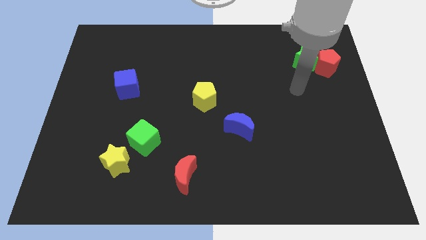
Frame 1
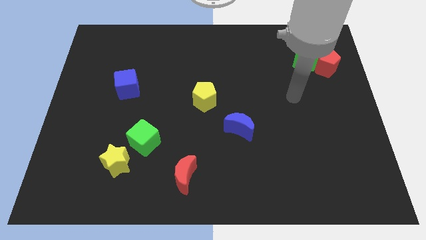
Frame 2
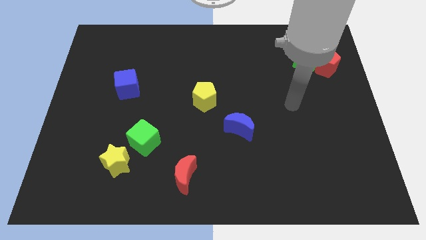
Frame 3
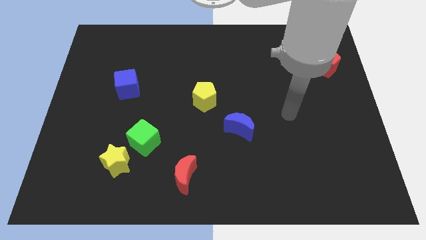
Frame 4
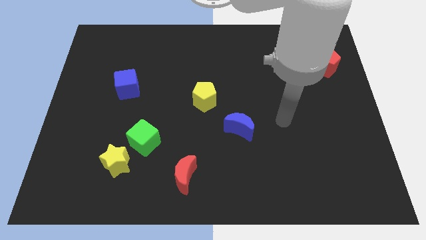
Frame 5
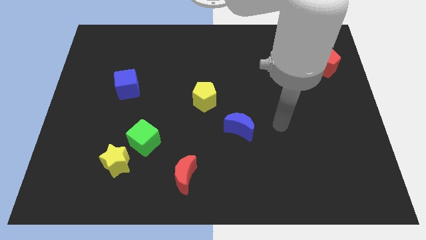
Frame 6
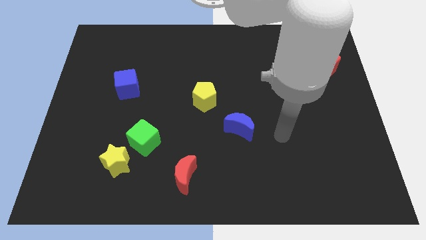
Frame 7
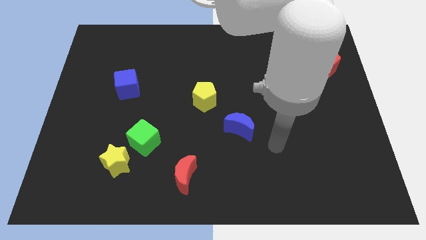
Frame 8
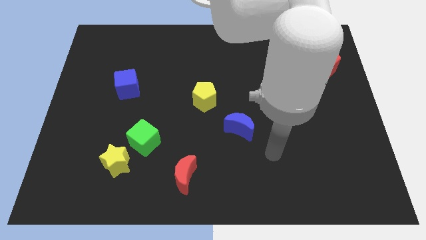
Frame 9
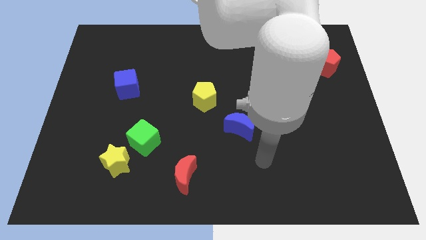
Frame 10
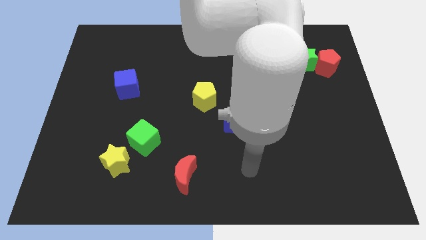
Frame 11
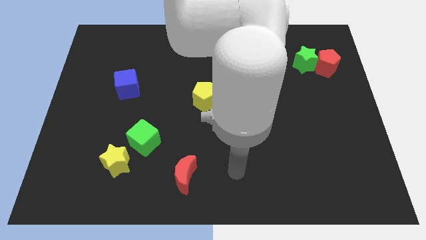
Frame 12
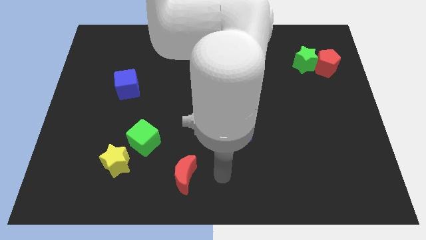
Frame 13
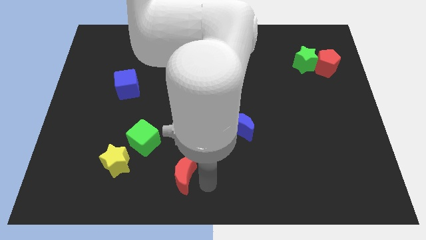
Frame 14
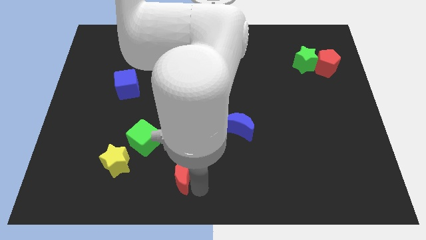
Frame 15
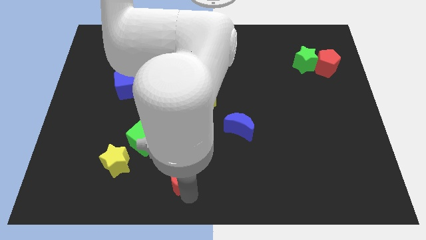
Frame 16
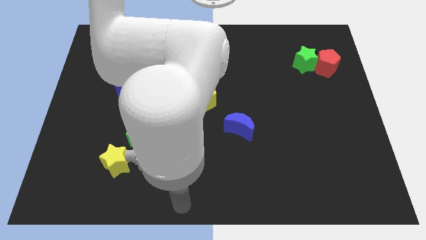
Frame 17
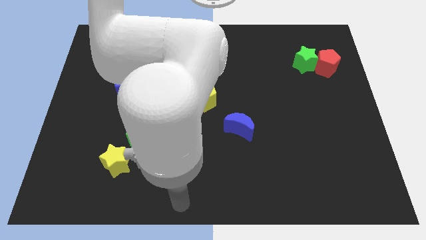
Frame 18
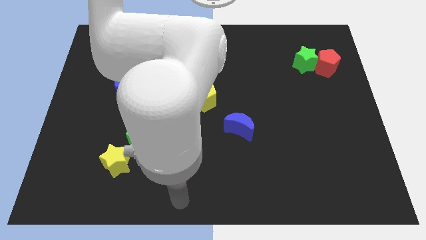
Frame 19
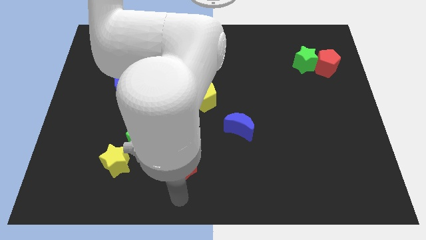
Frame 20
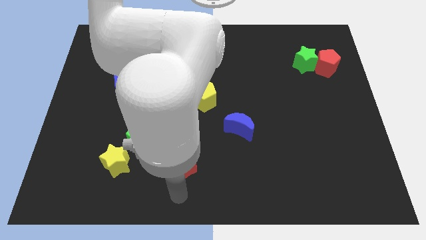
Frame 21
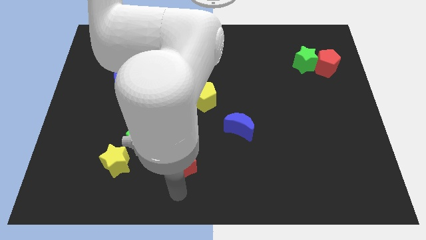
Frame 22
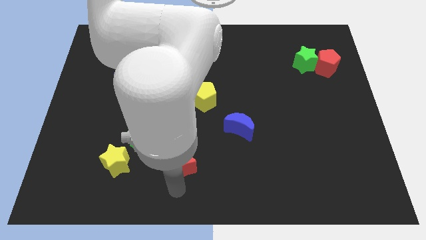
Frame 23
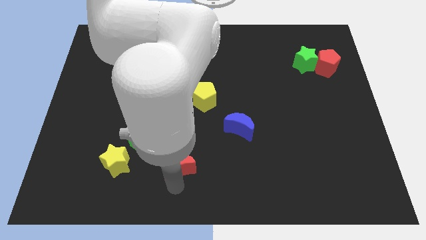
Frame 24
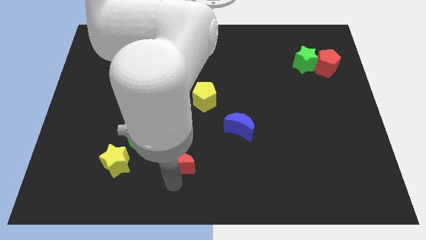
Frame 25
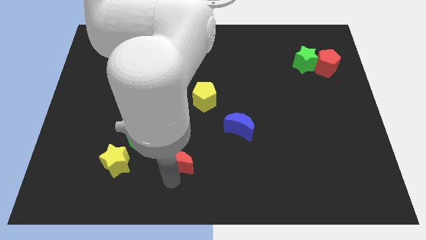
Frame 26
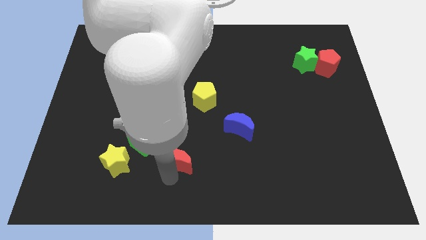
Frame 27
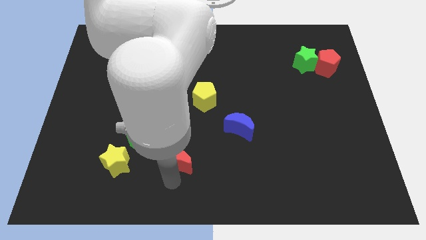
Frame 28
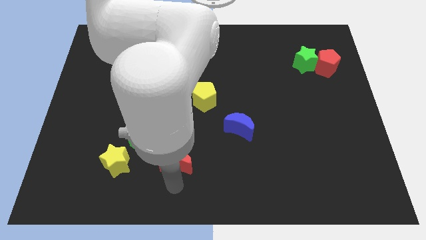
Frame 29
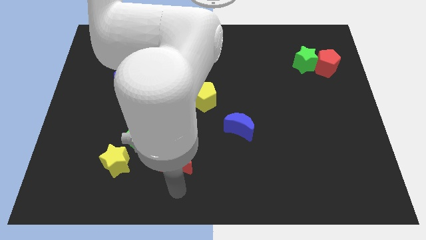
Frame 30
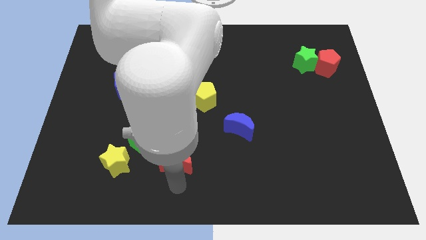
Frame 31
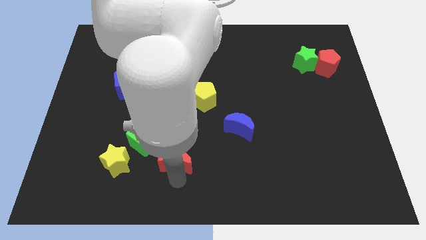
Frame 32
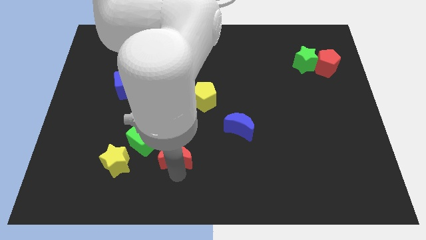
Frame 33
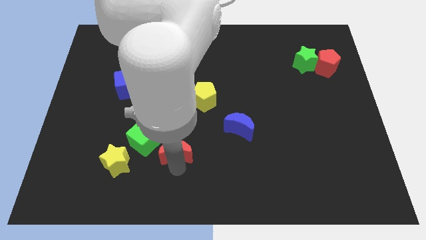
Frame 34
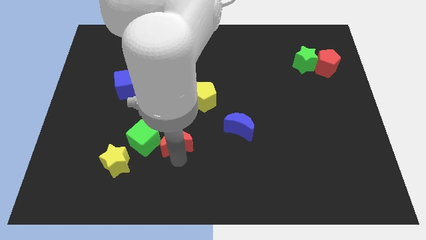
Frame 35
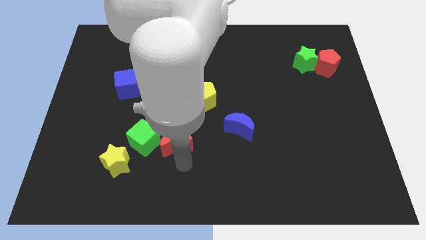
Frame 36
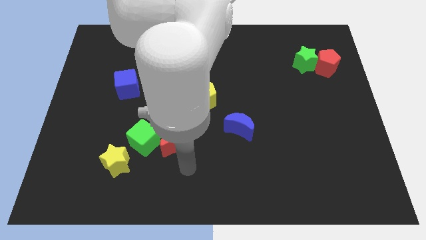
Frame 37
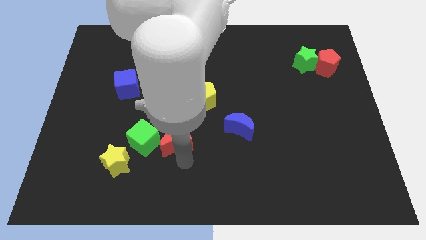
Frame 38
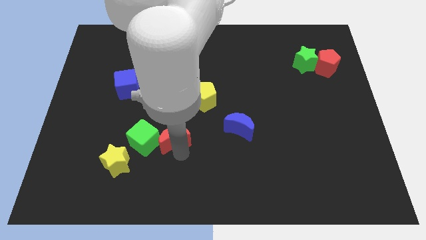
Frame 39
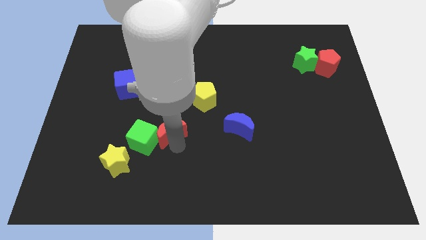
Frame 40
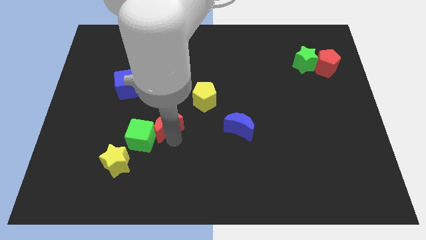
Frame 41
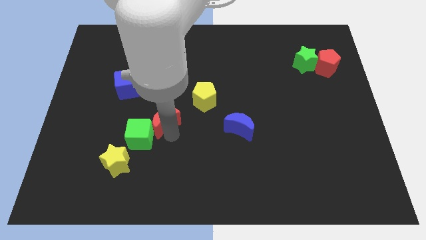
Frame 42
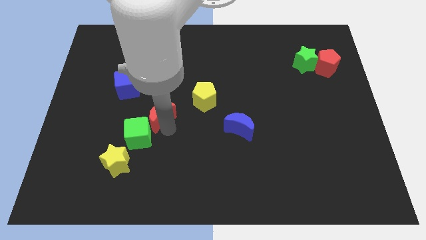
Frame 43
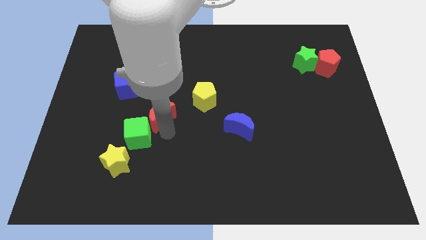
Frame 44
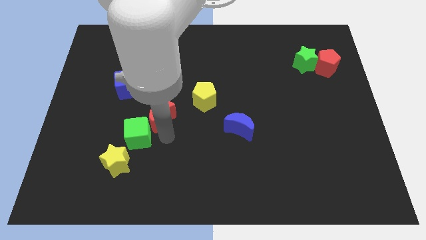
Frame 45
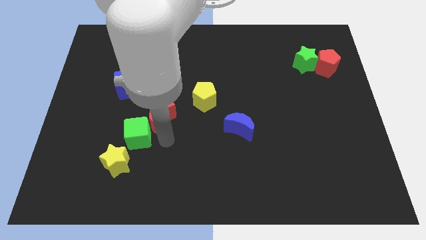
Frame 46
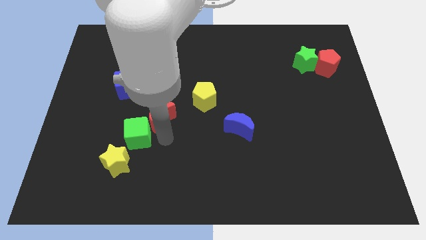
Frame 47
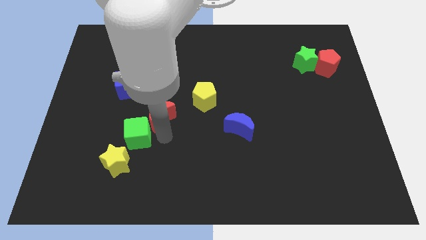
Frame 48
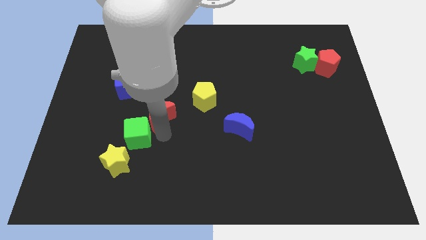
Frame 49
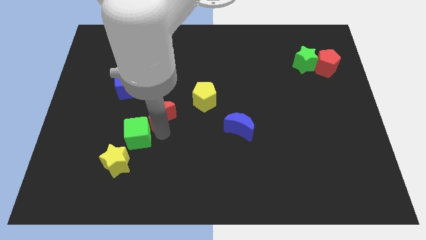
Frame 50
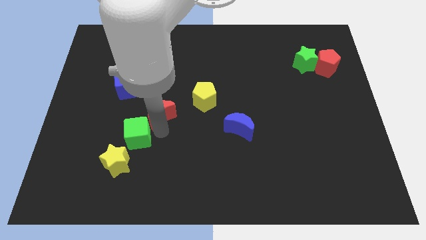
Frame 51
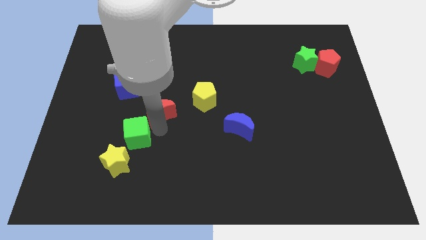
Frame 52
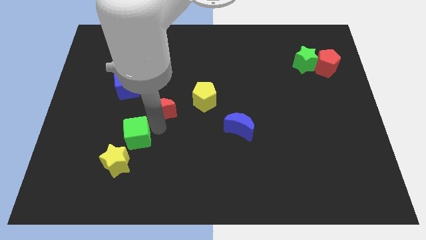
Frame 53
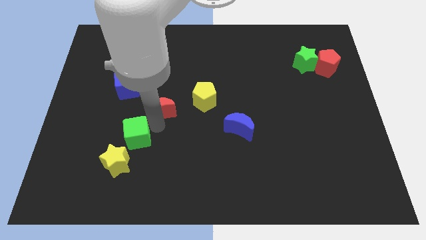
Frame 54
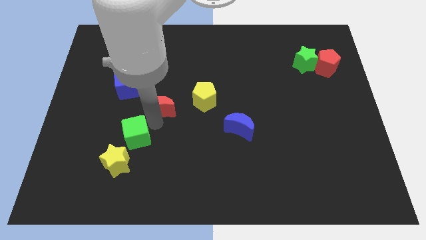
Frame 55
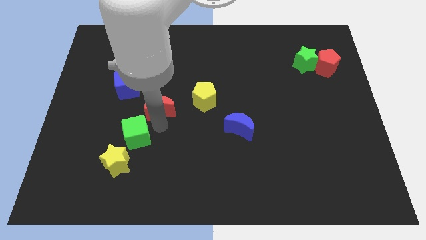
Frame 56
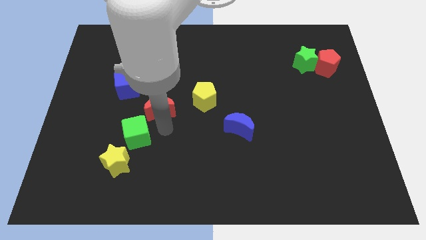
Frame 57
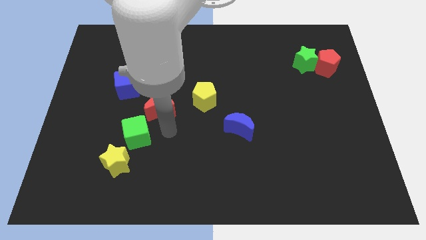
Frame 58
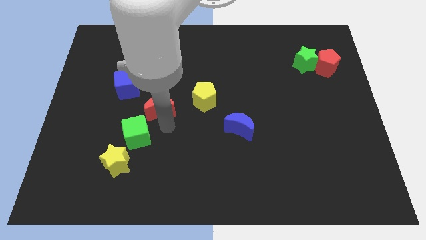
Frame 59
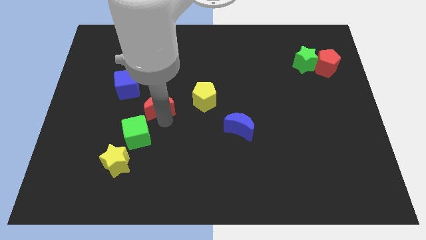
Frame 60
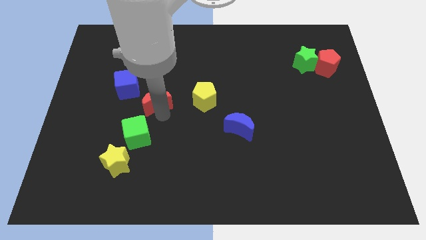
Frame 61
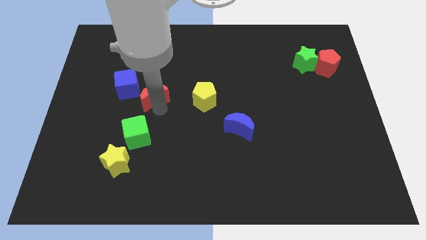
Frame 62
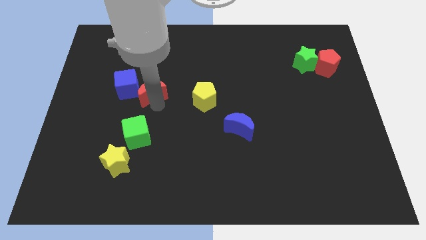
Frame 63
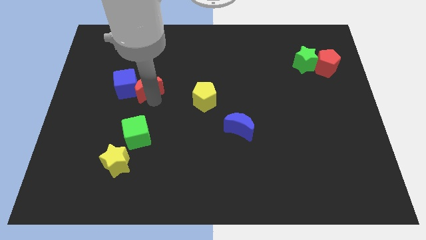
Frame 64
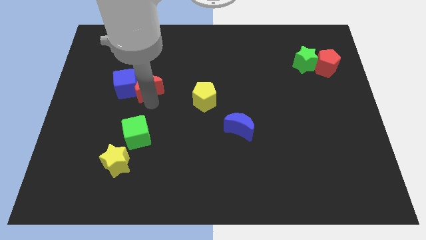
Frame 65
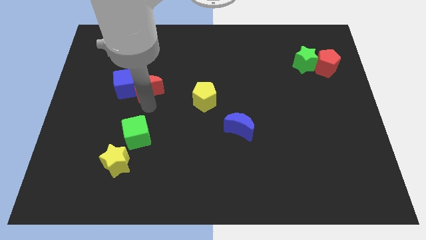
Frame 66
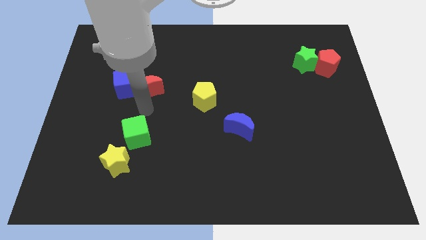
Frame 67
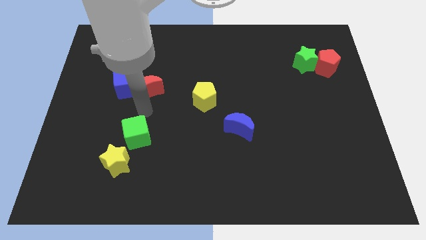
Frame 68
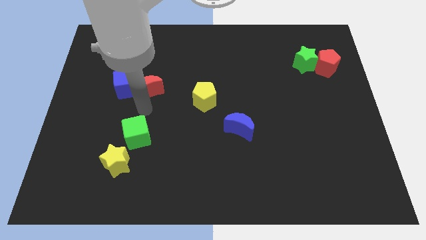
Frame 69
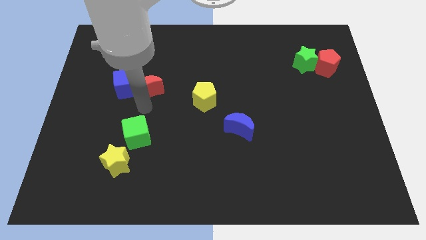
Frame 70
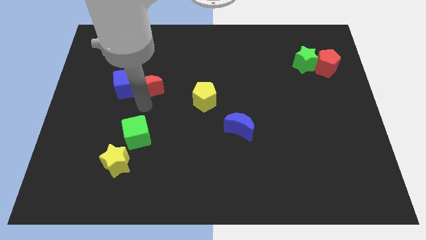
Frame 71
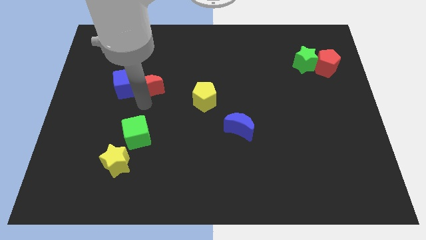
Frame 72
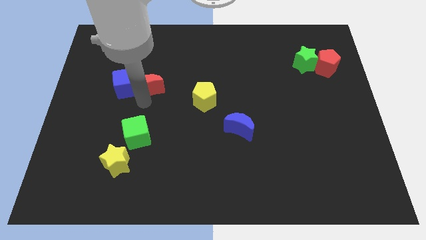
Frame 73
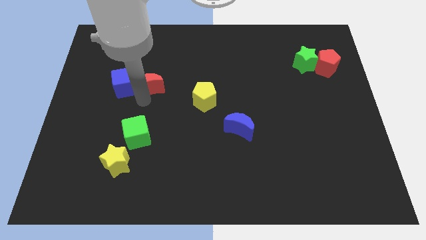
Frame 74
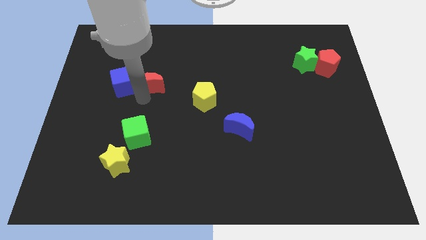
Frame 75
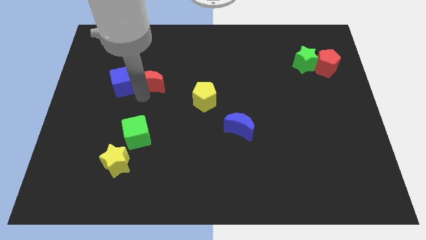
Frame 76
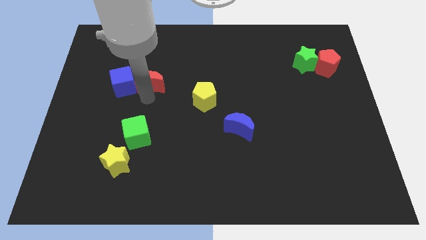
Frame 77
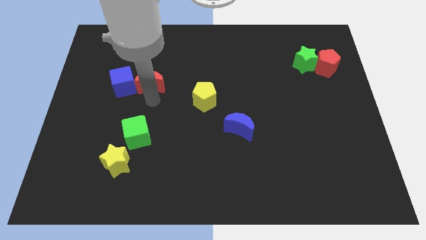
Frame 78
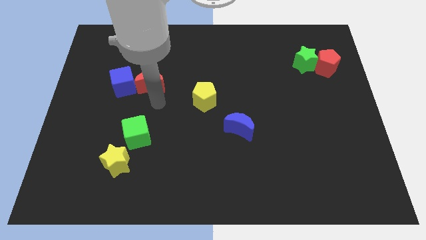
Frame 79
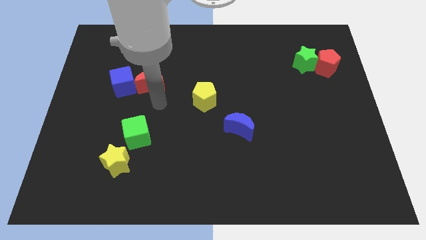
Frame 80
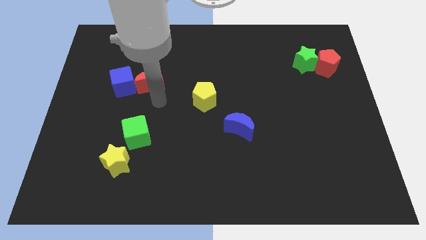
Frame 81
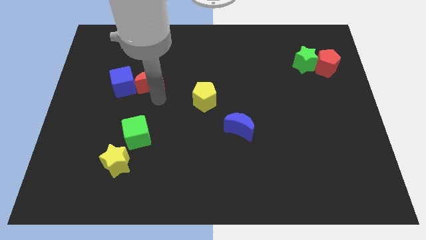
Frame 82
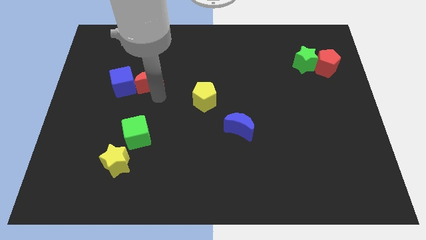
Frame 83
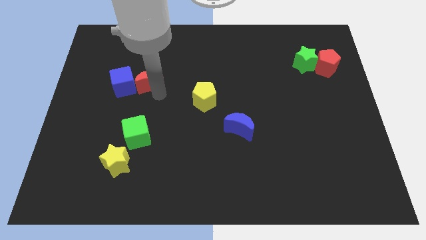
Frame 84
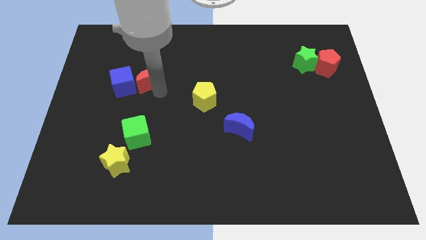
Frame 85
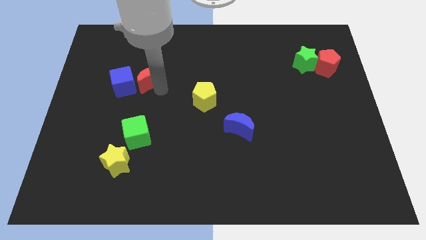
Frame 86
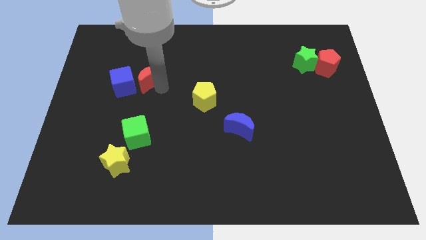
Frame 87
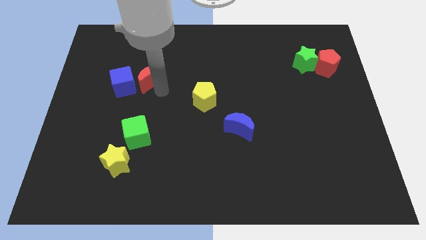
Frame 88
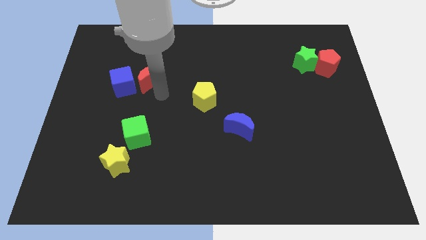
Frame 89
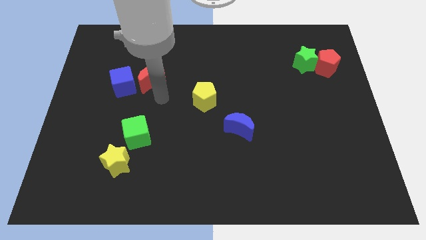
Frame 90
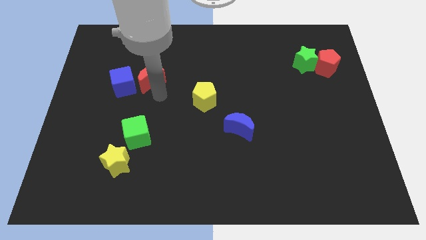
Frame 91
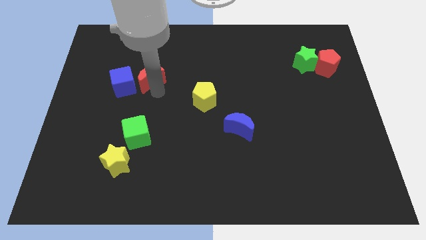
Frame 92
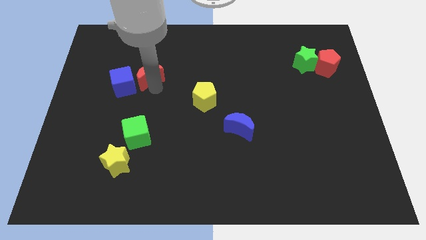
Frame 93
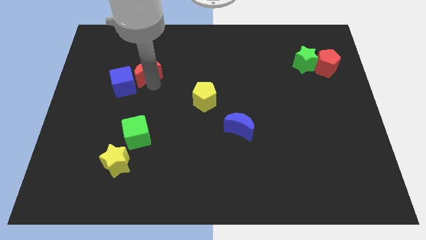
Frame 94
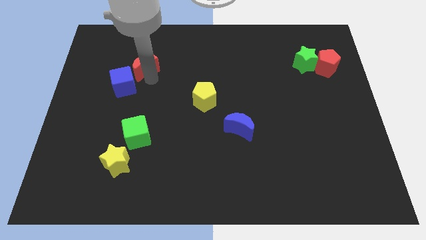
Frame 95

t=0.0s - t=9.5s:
move the red moon to the top of the blue cube
